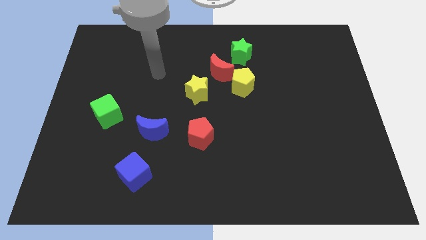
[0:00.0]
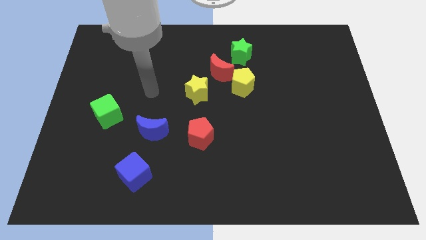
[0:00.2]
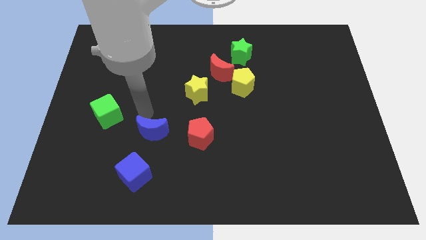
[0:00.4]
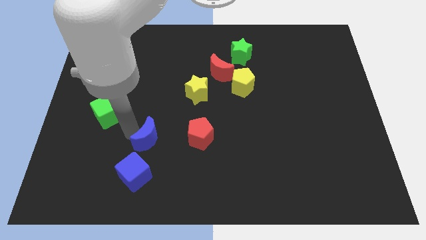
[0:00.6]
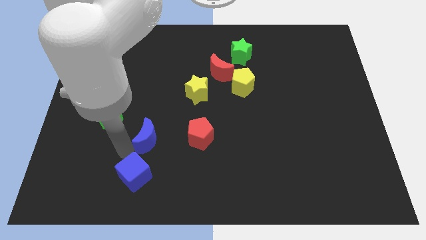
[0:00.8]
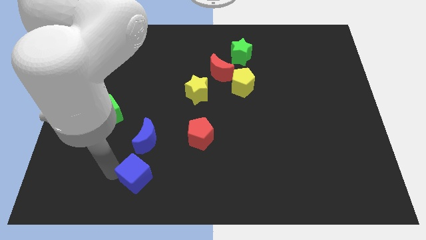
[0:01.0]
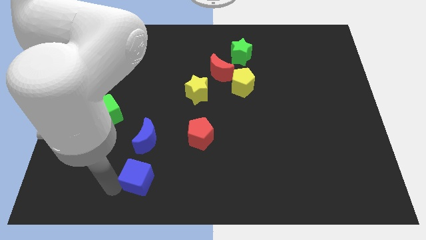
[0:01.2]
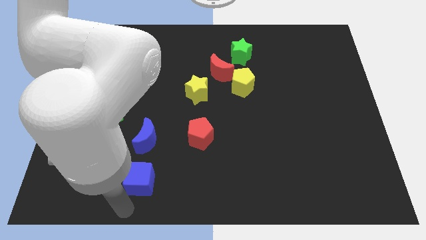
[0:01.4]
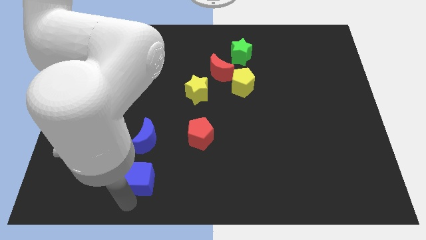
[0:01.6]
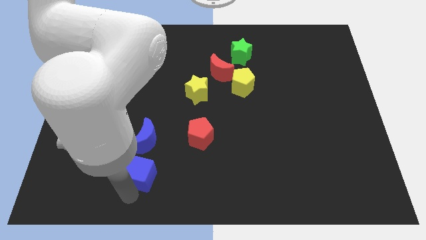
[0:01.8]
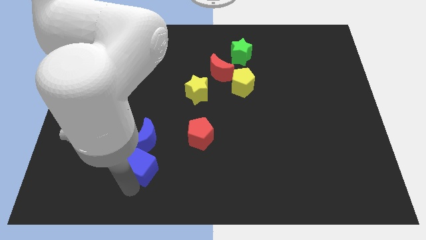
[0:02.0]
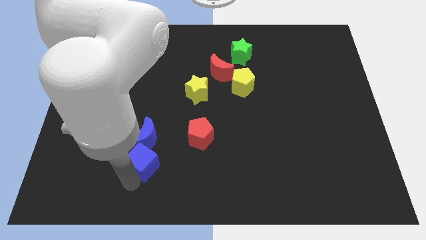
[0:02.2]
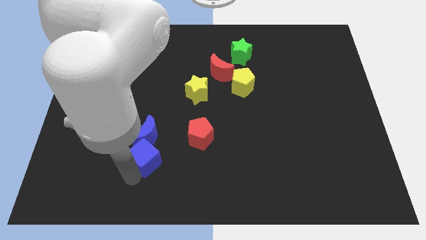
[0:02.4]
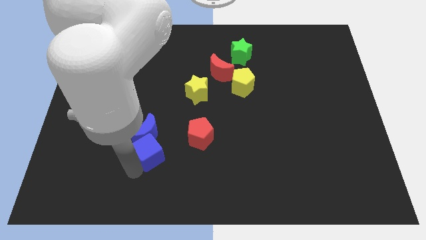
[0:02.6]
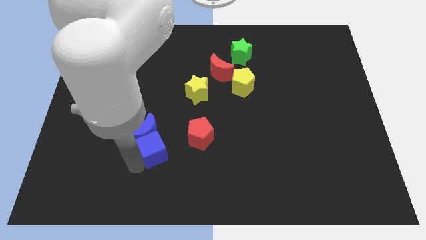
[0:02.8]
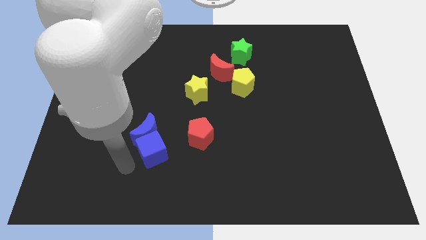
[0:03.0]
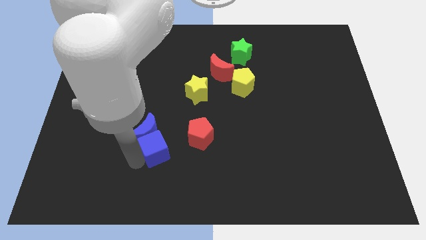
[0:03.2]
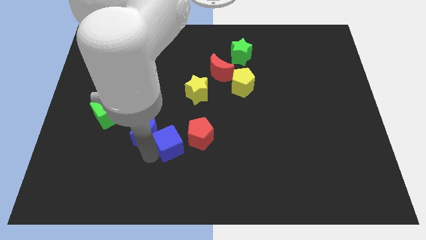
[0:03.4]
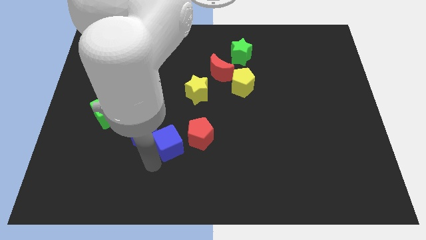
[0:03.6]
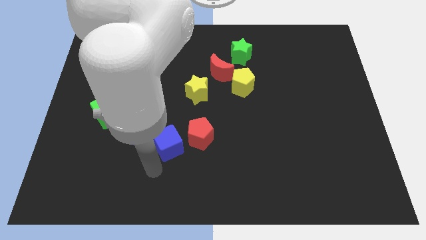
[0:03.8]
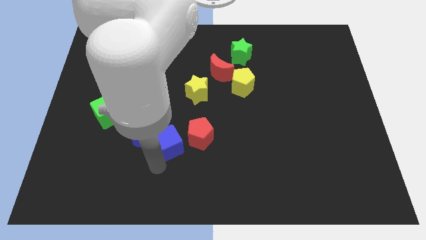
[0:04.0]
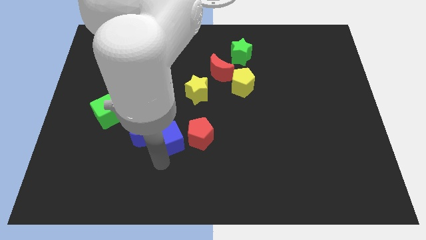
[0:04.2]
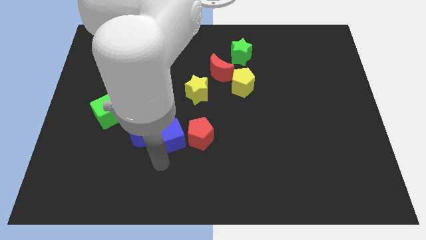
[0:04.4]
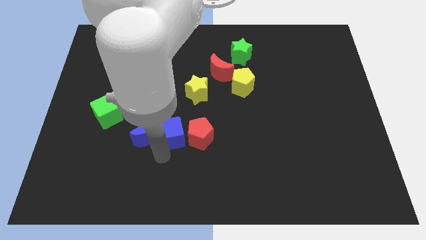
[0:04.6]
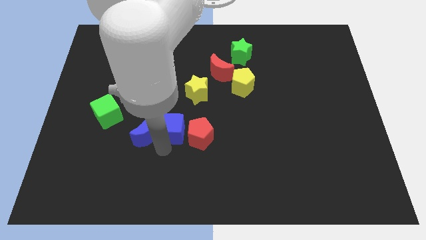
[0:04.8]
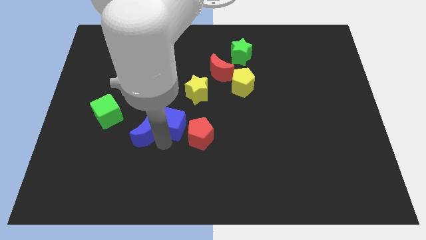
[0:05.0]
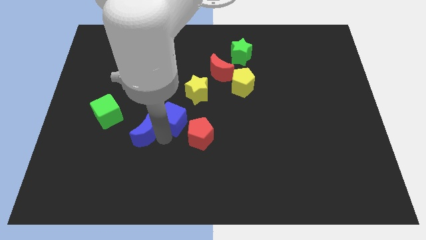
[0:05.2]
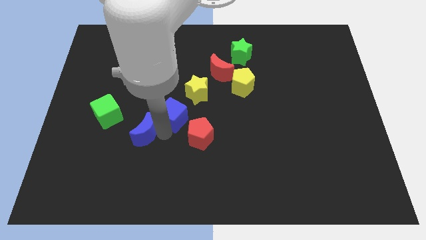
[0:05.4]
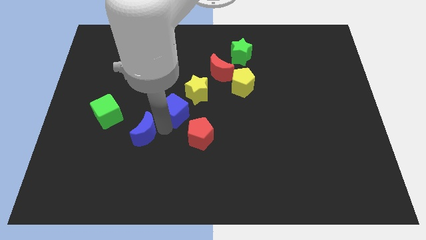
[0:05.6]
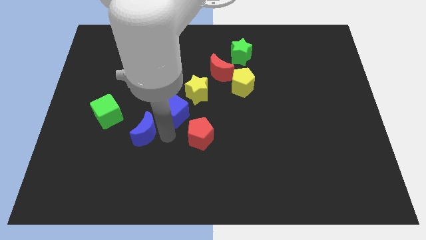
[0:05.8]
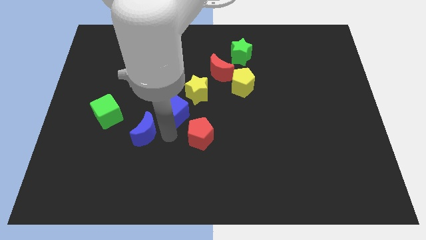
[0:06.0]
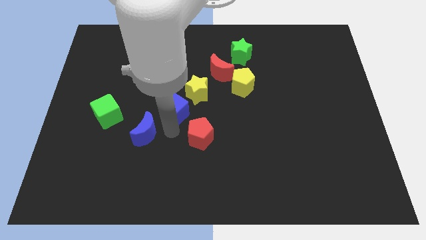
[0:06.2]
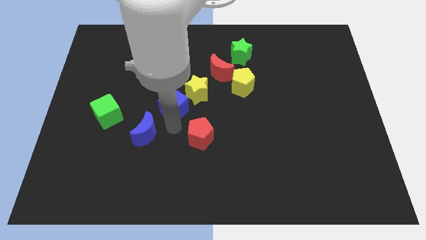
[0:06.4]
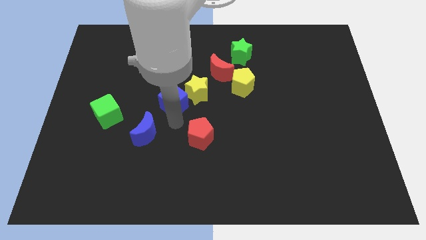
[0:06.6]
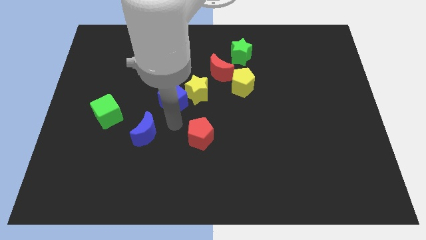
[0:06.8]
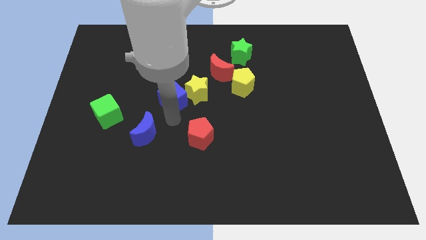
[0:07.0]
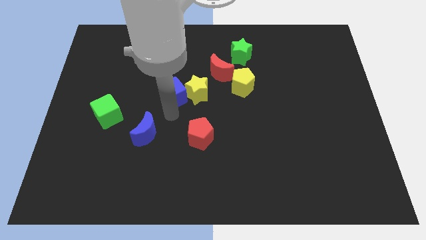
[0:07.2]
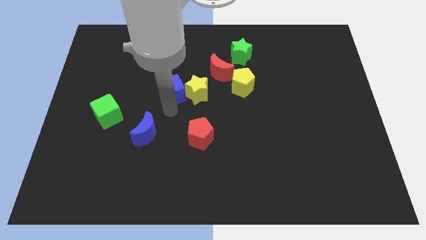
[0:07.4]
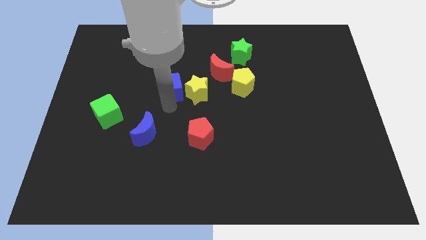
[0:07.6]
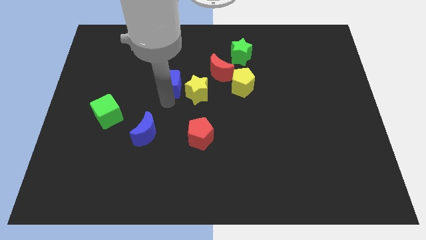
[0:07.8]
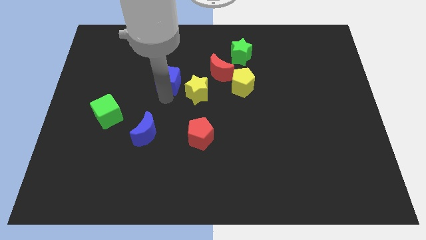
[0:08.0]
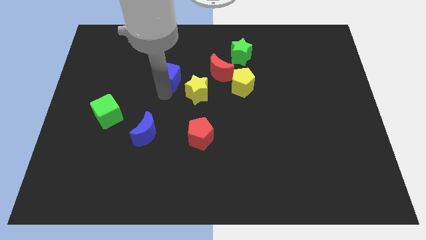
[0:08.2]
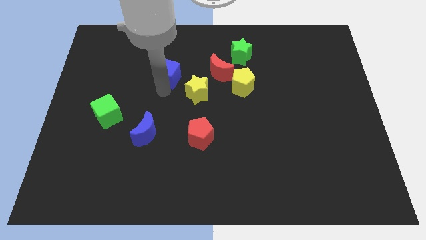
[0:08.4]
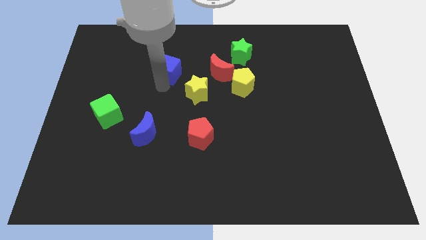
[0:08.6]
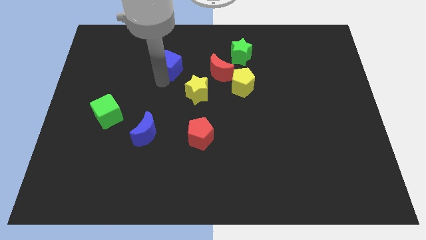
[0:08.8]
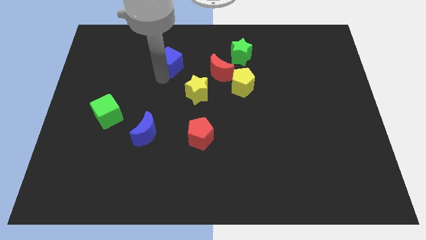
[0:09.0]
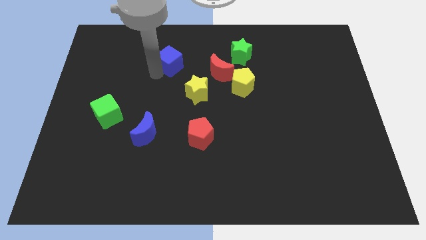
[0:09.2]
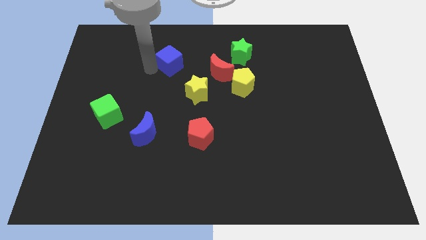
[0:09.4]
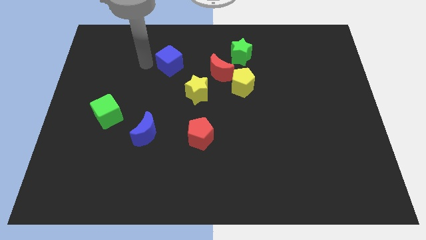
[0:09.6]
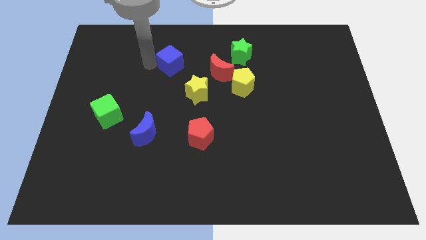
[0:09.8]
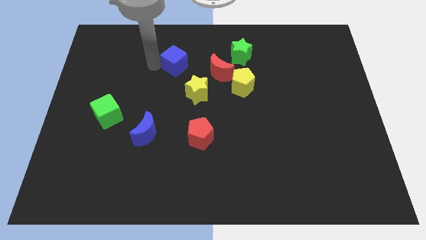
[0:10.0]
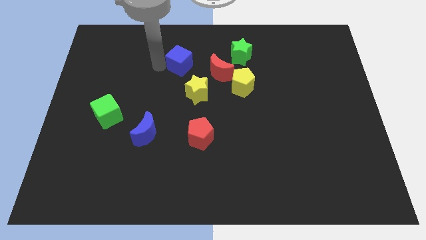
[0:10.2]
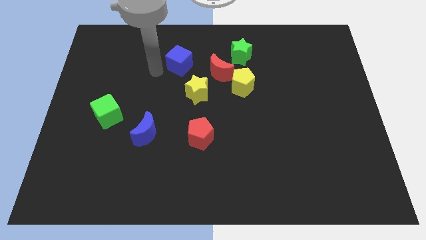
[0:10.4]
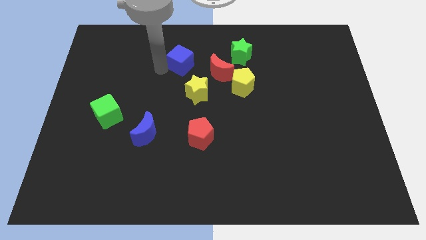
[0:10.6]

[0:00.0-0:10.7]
put the blue cube to the top left of the red moon

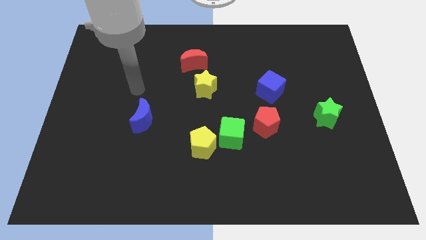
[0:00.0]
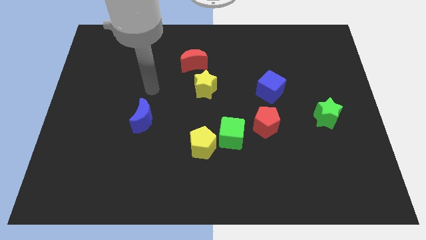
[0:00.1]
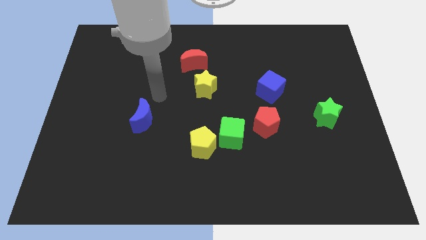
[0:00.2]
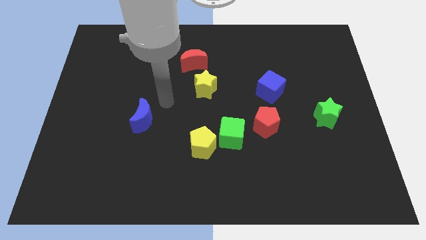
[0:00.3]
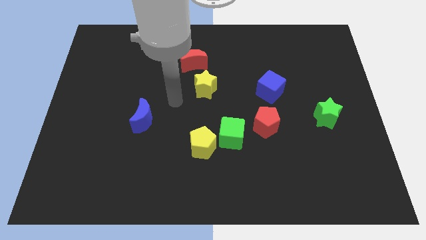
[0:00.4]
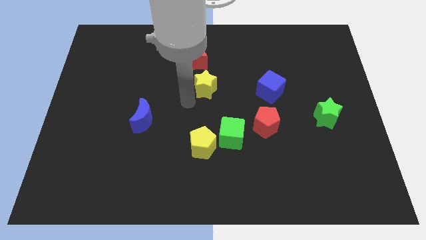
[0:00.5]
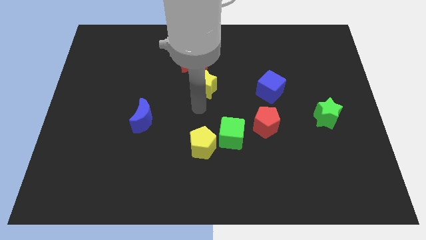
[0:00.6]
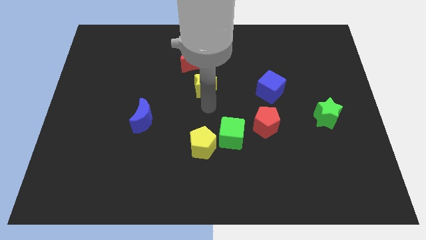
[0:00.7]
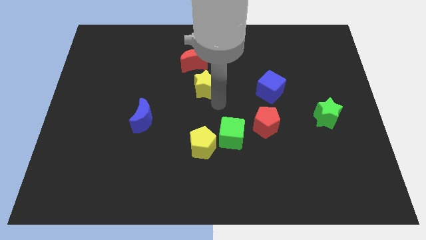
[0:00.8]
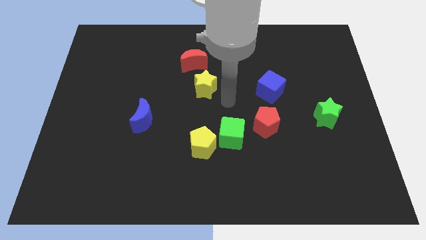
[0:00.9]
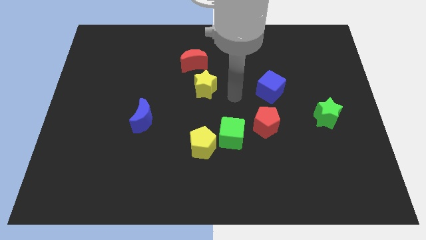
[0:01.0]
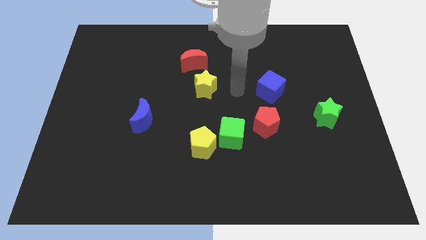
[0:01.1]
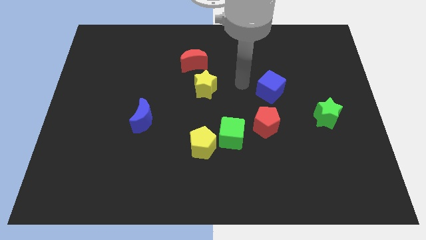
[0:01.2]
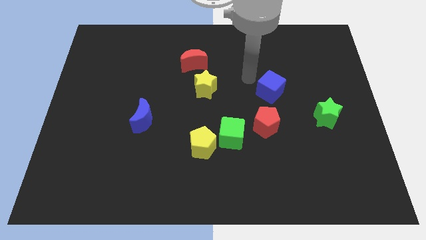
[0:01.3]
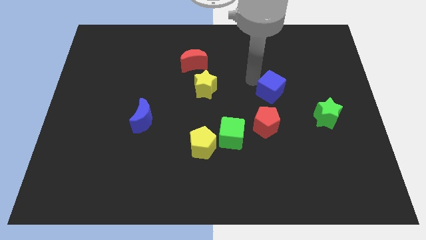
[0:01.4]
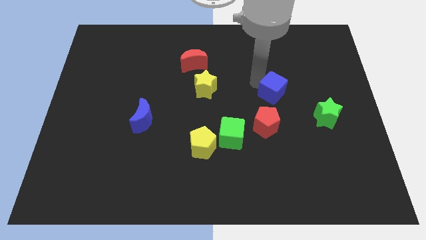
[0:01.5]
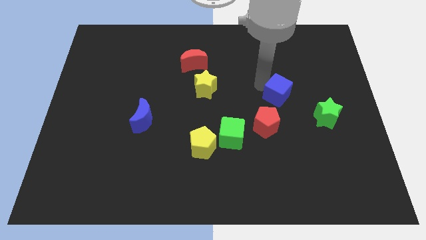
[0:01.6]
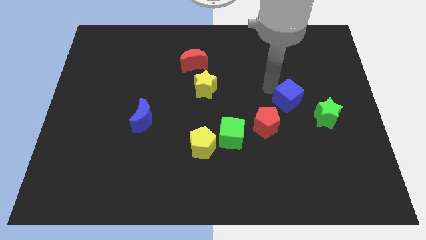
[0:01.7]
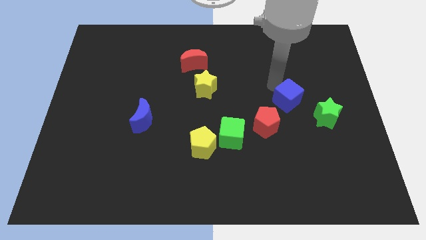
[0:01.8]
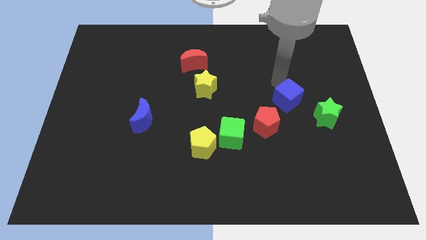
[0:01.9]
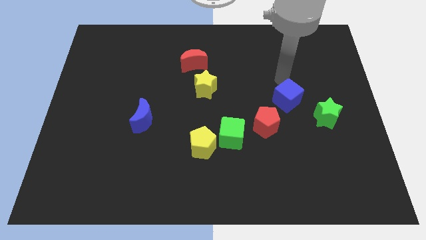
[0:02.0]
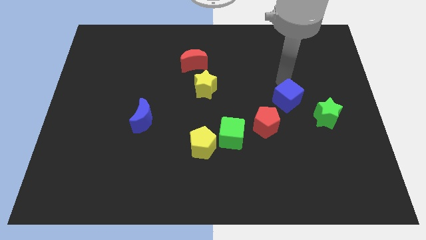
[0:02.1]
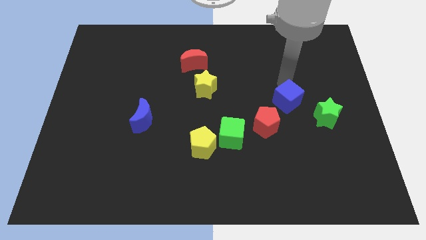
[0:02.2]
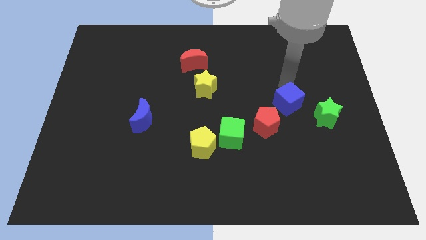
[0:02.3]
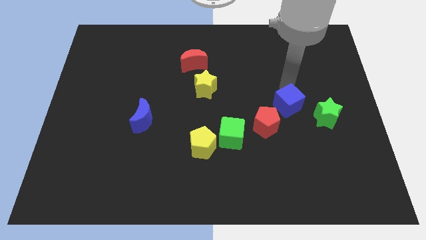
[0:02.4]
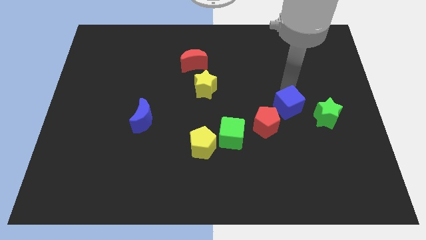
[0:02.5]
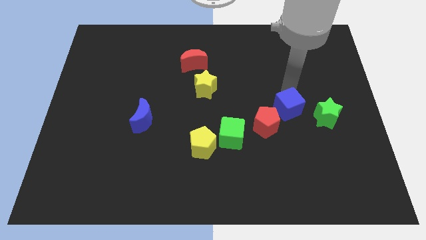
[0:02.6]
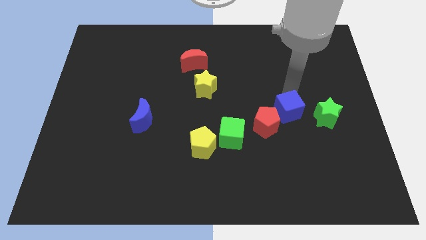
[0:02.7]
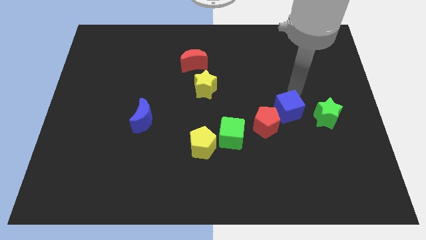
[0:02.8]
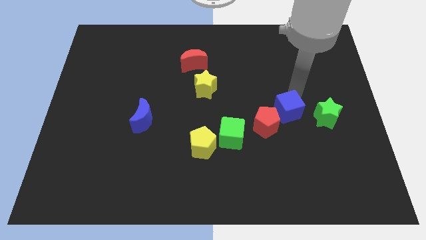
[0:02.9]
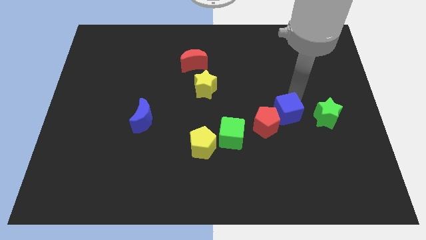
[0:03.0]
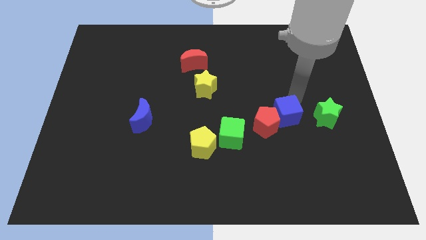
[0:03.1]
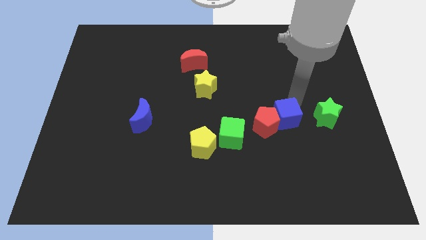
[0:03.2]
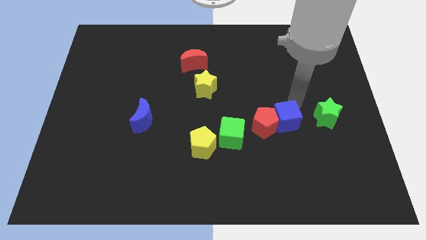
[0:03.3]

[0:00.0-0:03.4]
push the blue cube to the right of the green cube
